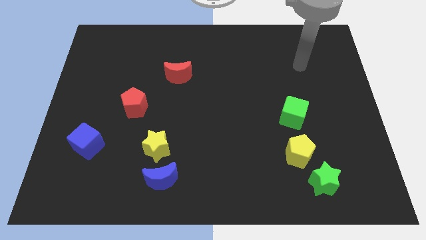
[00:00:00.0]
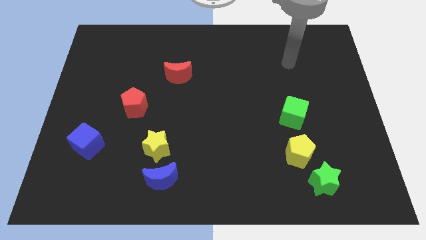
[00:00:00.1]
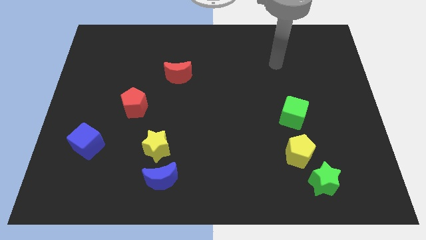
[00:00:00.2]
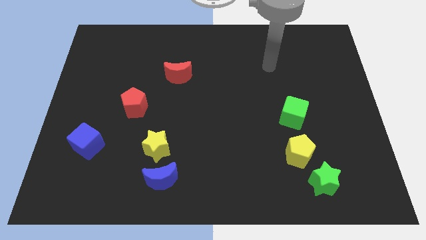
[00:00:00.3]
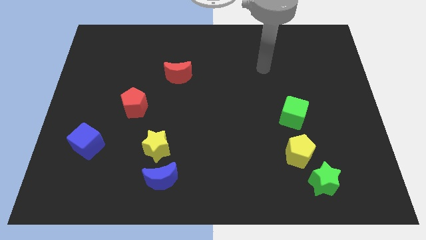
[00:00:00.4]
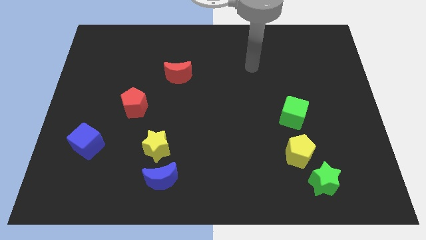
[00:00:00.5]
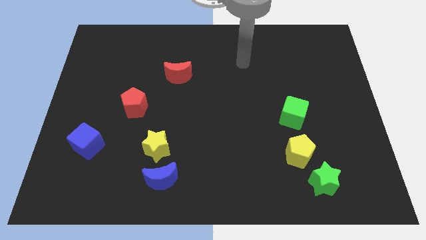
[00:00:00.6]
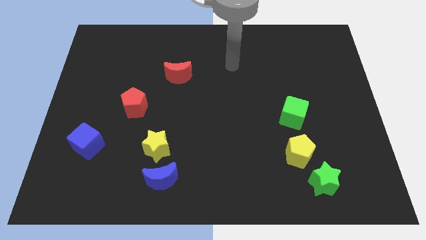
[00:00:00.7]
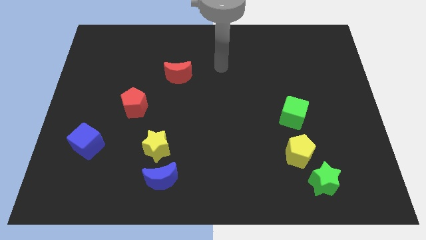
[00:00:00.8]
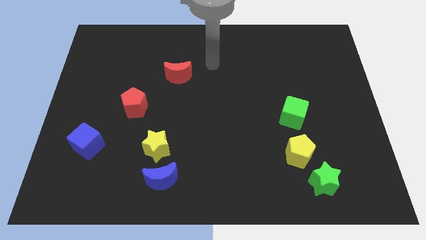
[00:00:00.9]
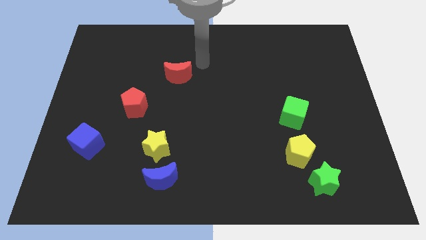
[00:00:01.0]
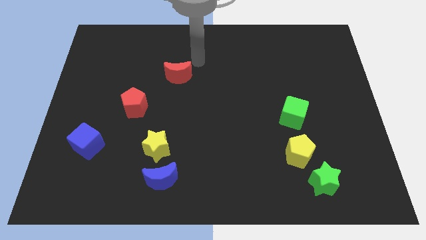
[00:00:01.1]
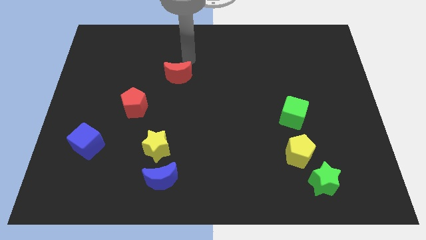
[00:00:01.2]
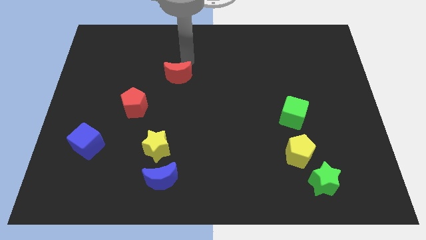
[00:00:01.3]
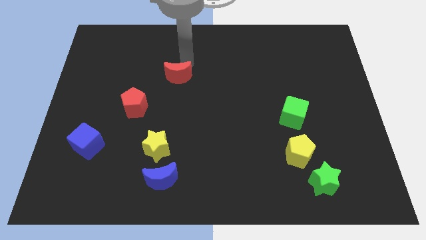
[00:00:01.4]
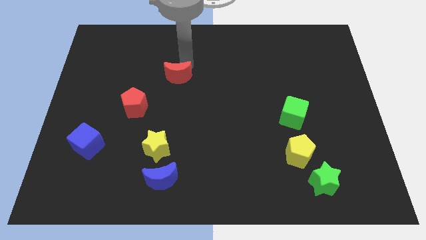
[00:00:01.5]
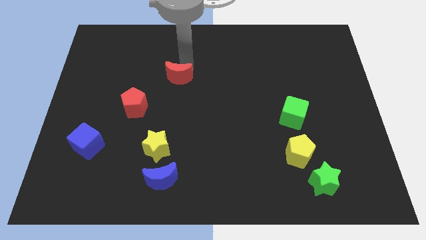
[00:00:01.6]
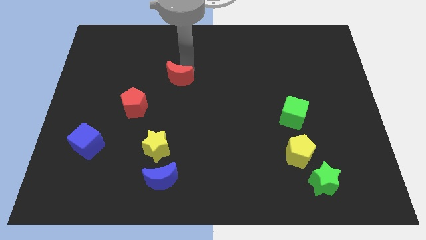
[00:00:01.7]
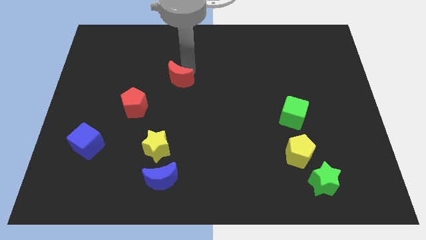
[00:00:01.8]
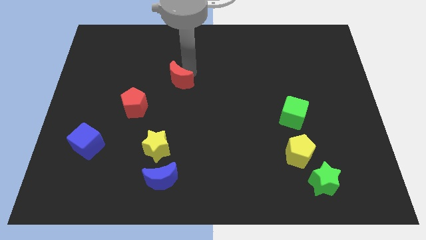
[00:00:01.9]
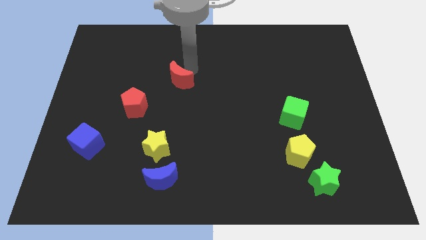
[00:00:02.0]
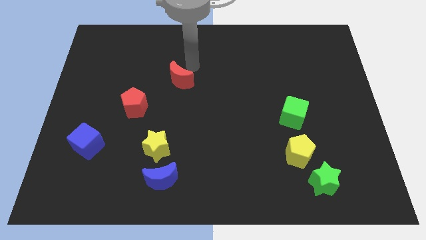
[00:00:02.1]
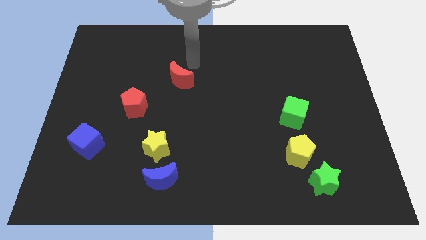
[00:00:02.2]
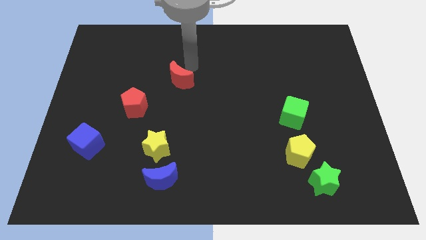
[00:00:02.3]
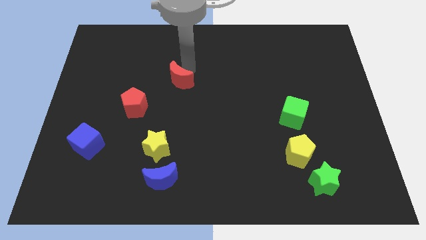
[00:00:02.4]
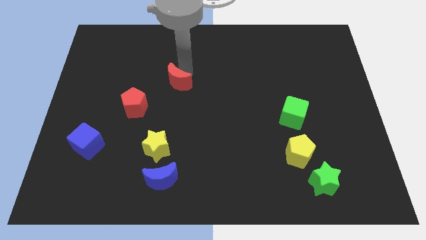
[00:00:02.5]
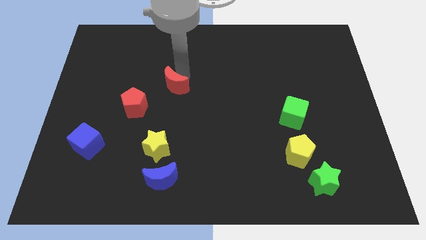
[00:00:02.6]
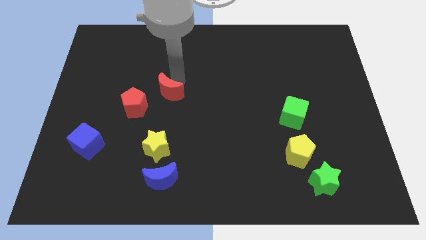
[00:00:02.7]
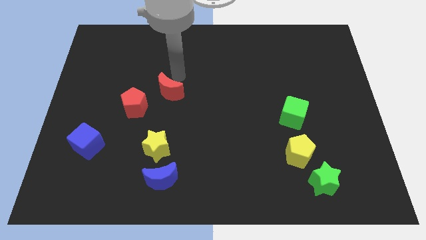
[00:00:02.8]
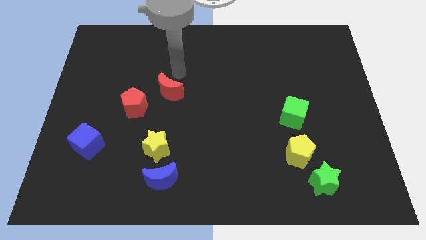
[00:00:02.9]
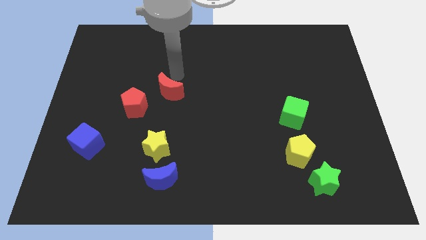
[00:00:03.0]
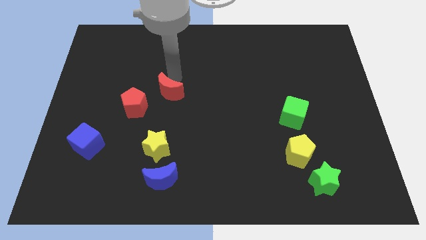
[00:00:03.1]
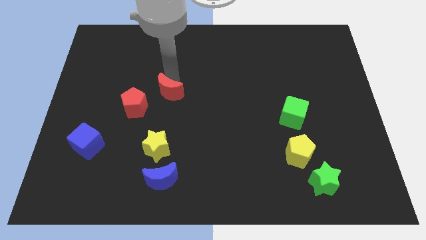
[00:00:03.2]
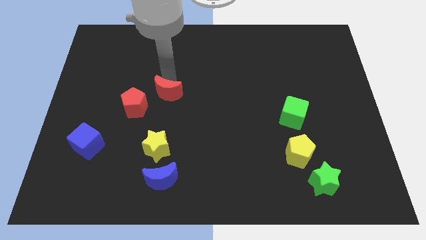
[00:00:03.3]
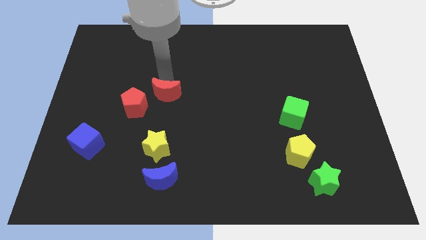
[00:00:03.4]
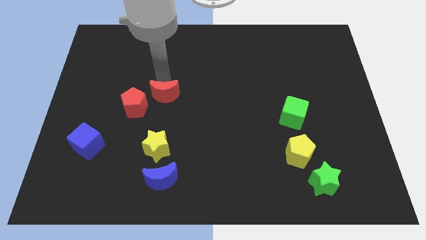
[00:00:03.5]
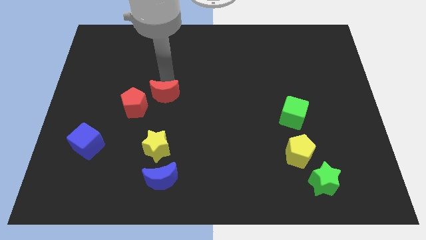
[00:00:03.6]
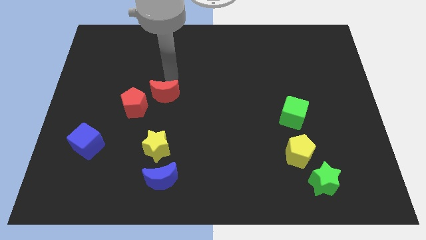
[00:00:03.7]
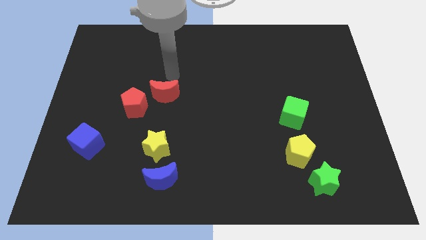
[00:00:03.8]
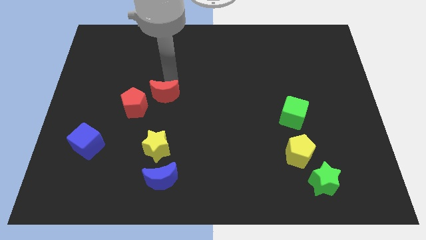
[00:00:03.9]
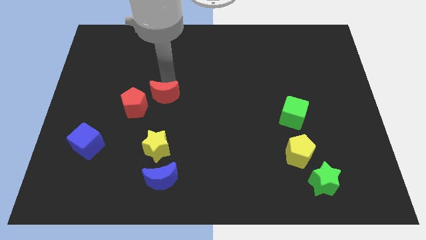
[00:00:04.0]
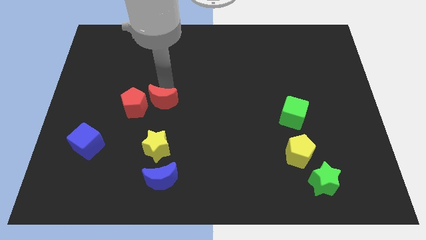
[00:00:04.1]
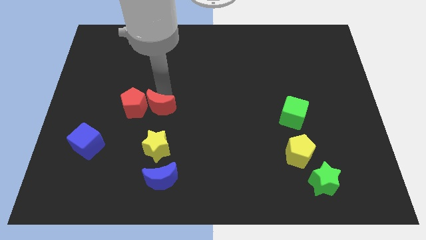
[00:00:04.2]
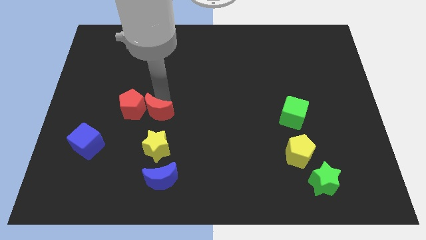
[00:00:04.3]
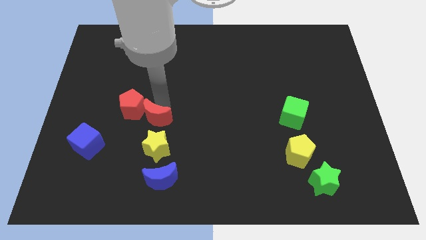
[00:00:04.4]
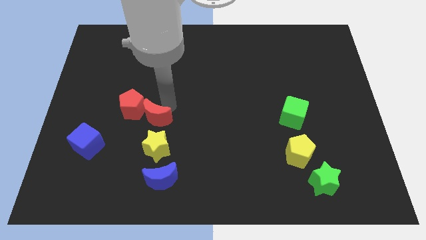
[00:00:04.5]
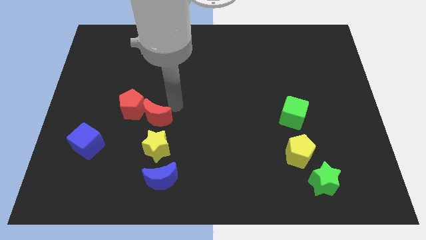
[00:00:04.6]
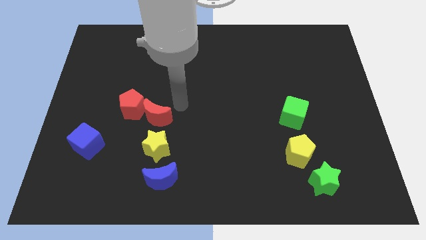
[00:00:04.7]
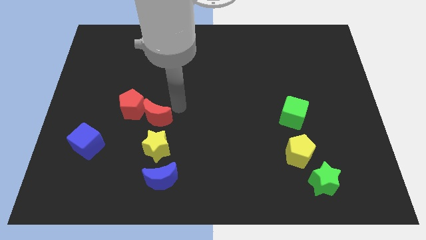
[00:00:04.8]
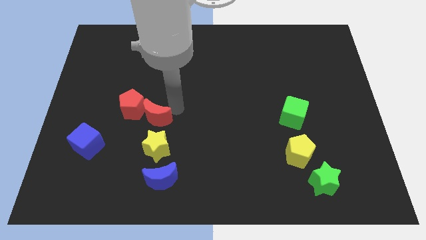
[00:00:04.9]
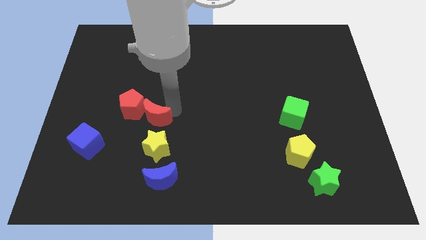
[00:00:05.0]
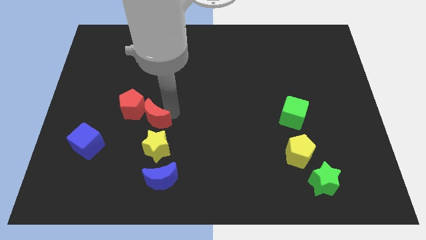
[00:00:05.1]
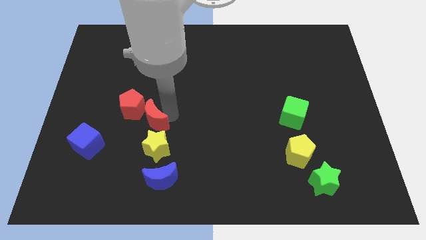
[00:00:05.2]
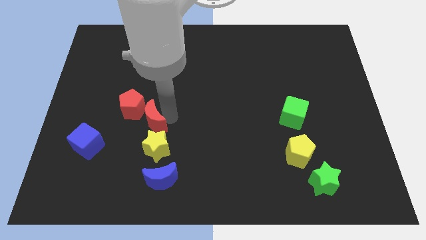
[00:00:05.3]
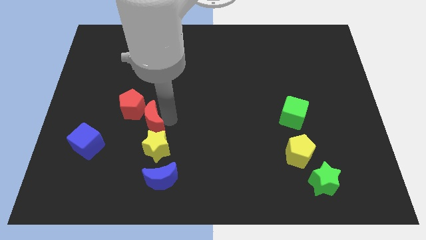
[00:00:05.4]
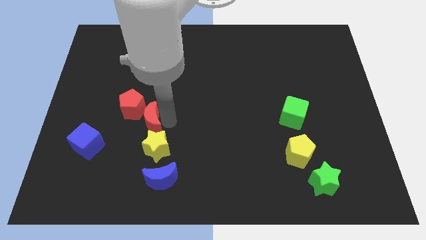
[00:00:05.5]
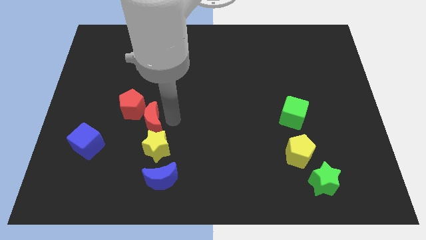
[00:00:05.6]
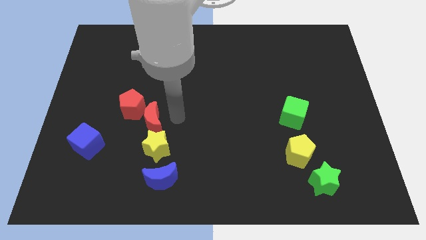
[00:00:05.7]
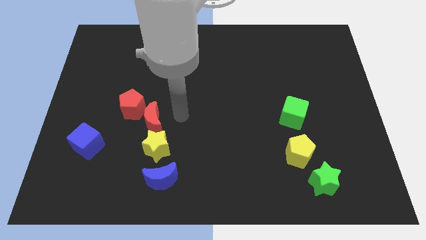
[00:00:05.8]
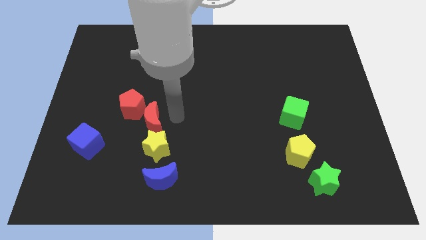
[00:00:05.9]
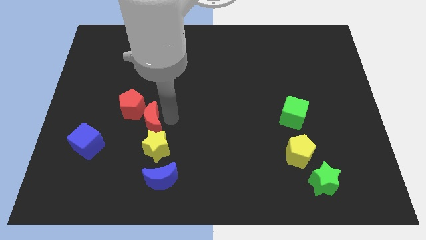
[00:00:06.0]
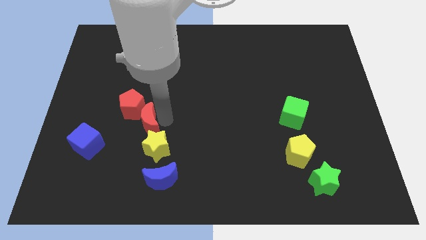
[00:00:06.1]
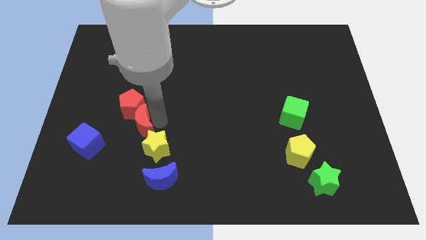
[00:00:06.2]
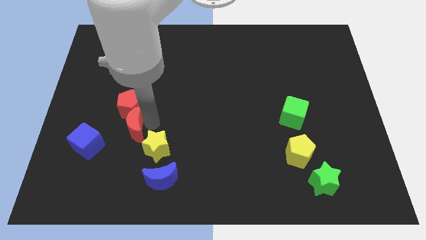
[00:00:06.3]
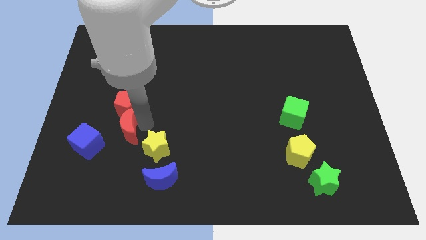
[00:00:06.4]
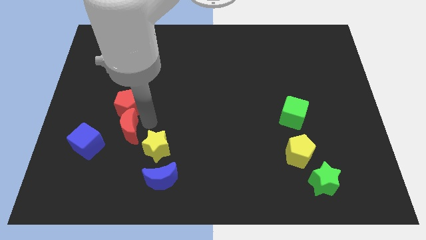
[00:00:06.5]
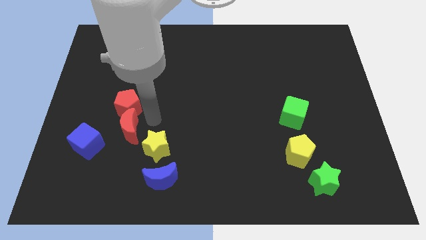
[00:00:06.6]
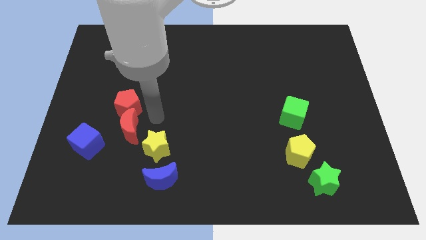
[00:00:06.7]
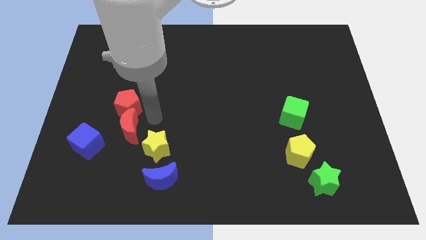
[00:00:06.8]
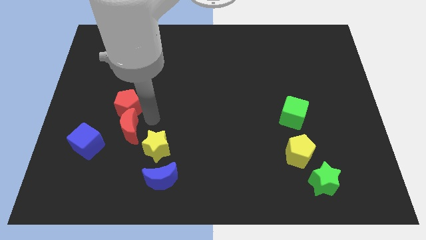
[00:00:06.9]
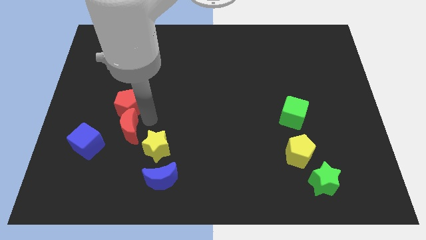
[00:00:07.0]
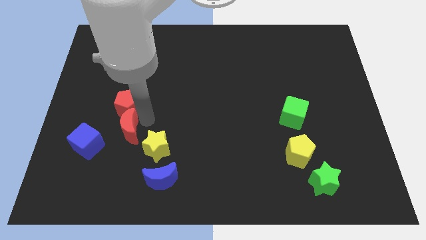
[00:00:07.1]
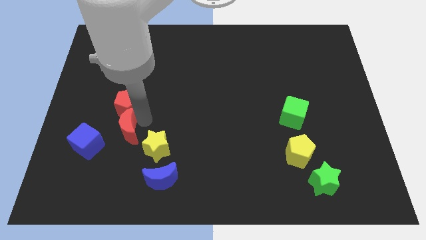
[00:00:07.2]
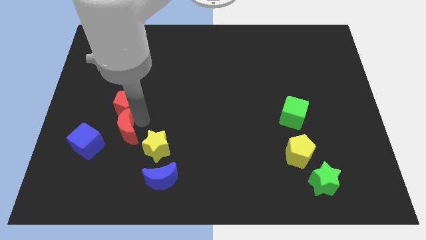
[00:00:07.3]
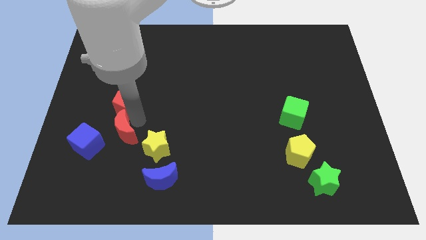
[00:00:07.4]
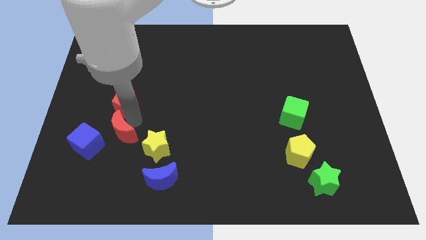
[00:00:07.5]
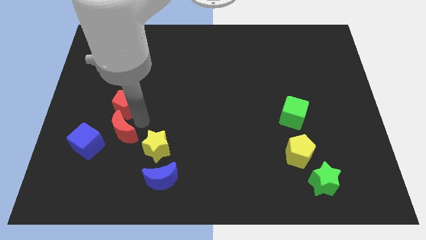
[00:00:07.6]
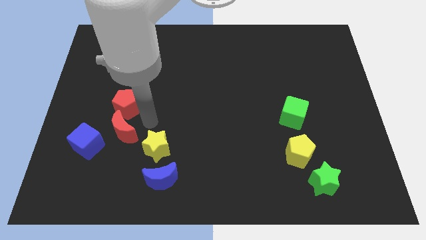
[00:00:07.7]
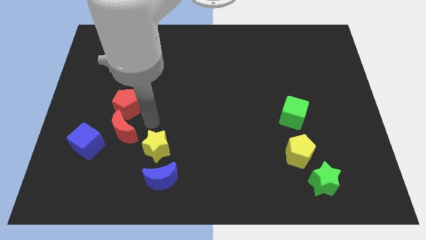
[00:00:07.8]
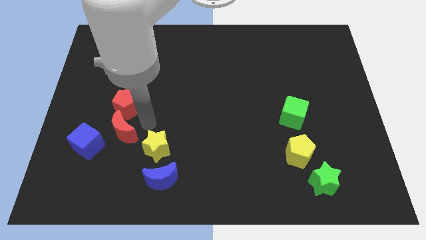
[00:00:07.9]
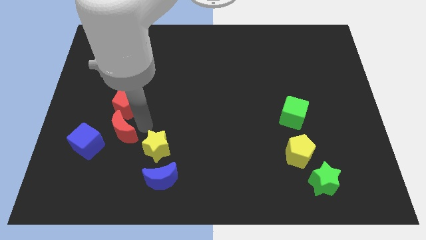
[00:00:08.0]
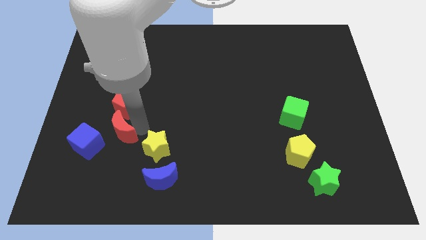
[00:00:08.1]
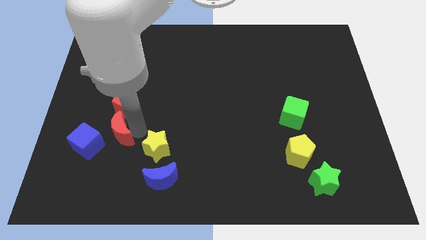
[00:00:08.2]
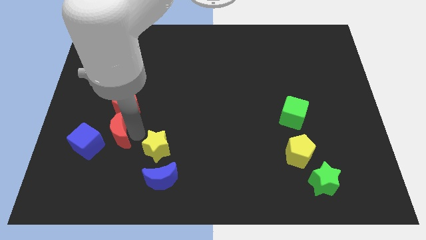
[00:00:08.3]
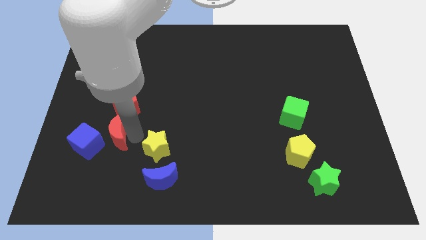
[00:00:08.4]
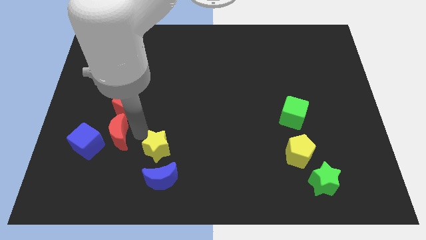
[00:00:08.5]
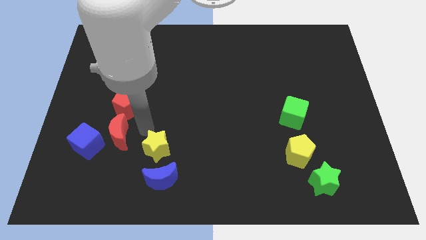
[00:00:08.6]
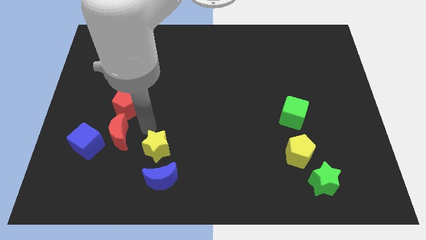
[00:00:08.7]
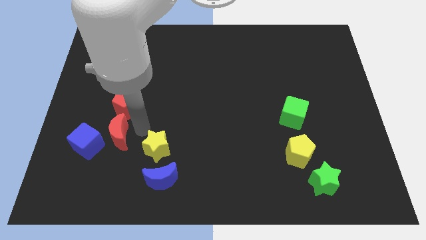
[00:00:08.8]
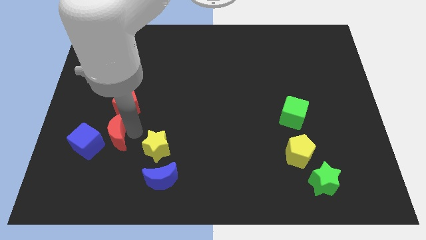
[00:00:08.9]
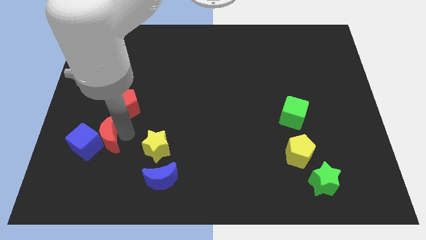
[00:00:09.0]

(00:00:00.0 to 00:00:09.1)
move the red moon close to the blue cube
